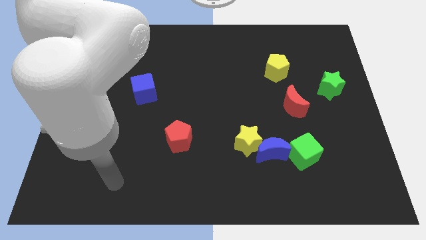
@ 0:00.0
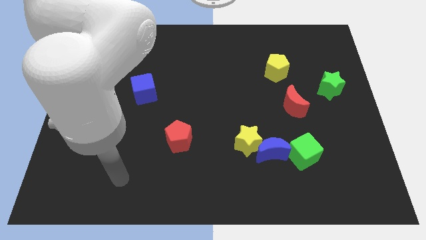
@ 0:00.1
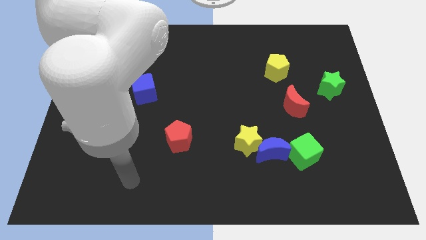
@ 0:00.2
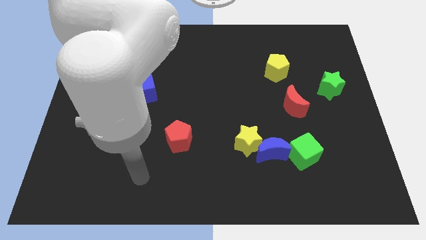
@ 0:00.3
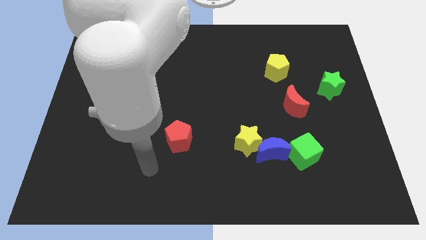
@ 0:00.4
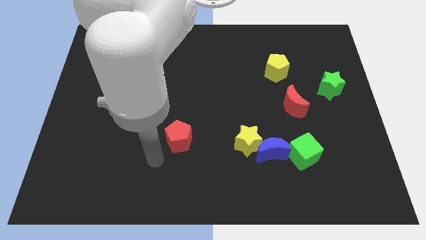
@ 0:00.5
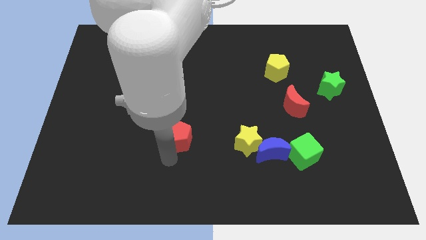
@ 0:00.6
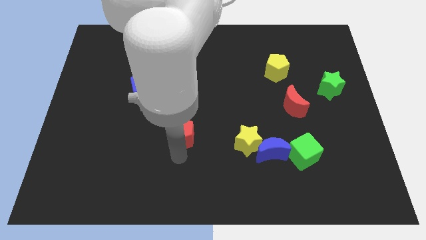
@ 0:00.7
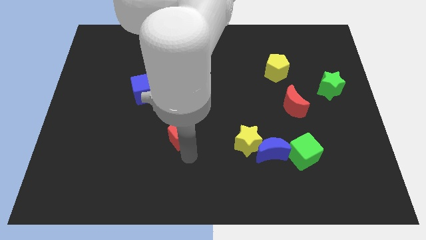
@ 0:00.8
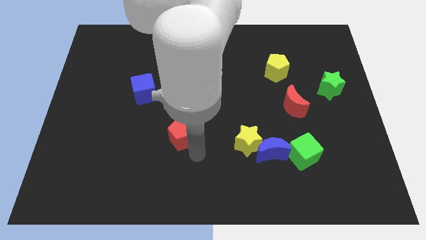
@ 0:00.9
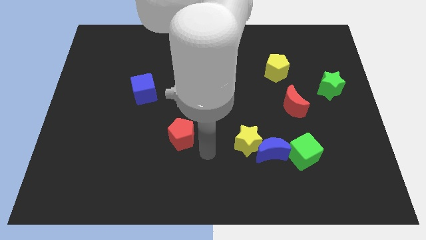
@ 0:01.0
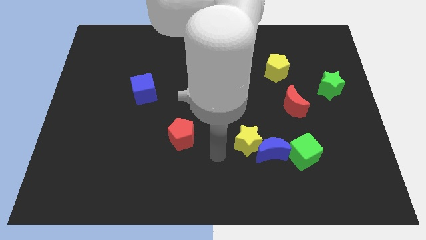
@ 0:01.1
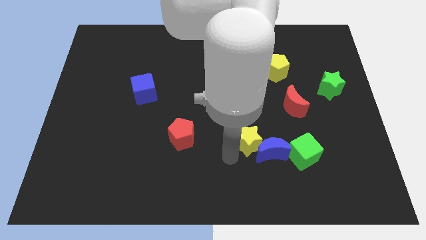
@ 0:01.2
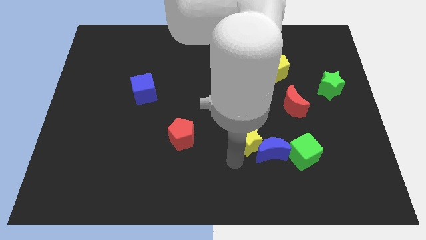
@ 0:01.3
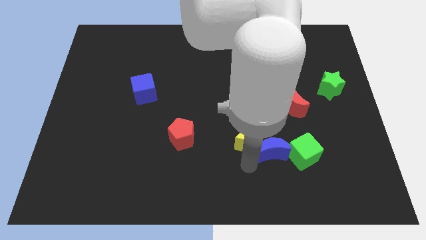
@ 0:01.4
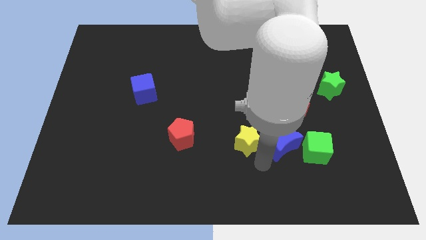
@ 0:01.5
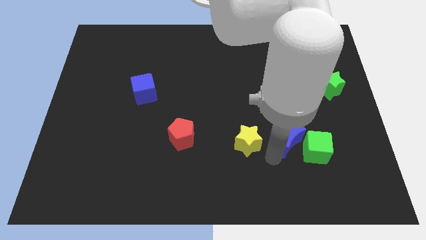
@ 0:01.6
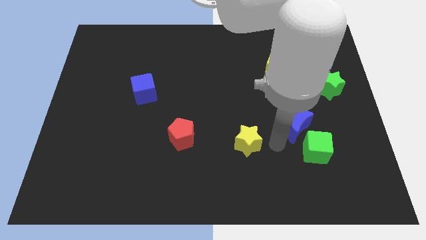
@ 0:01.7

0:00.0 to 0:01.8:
separate the yellow star from the blue moon

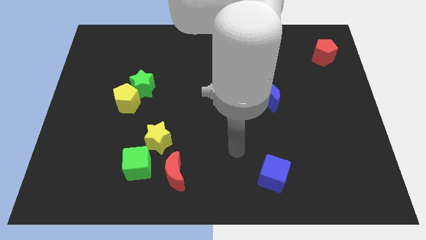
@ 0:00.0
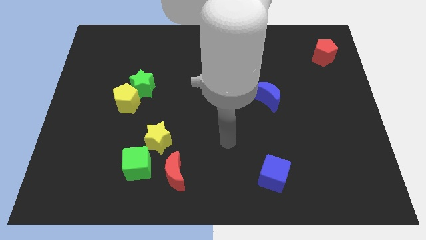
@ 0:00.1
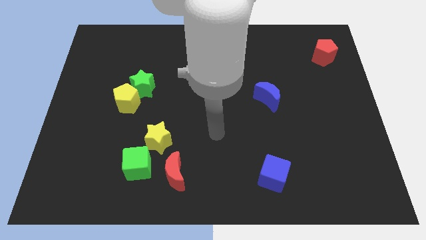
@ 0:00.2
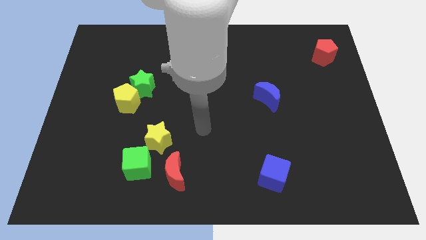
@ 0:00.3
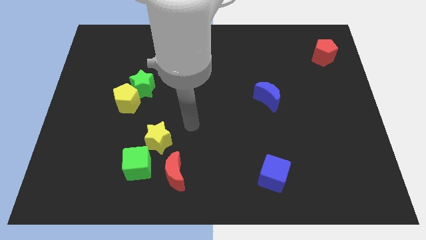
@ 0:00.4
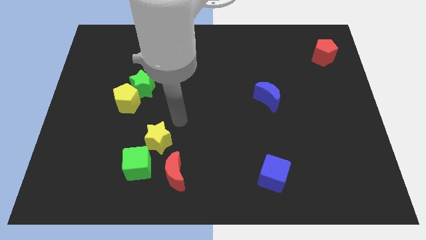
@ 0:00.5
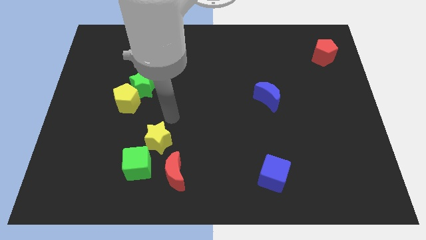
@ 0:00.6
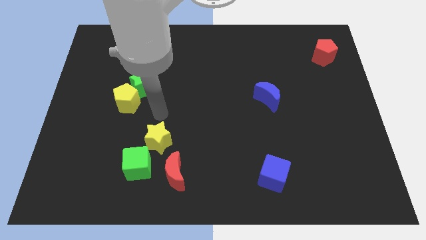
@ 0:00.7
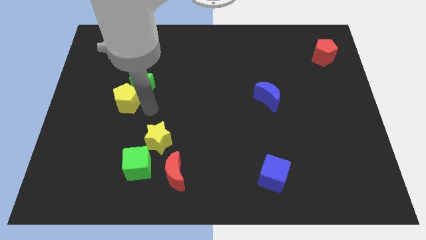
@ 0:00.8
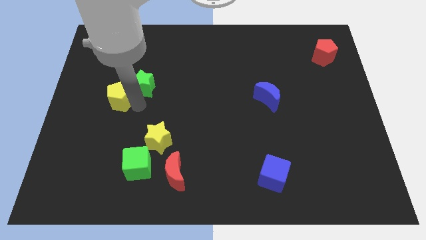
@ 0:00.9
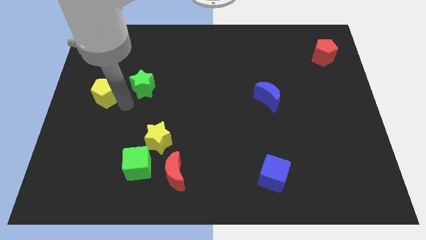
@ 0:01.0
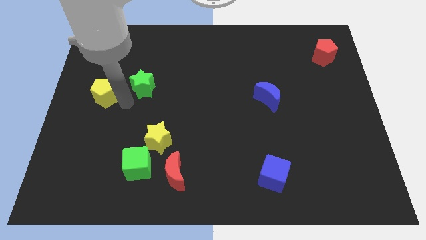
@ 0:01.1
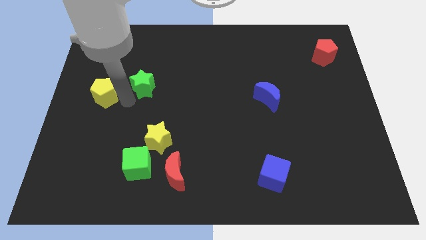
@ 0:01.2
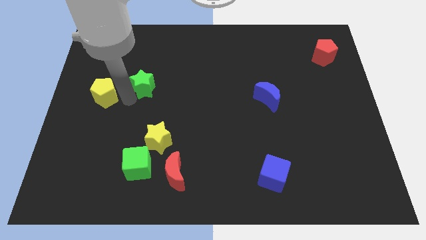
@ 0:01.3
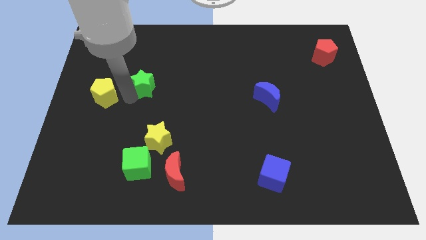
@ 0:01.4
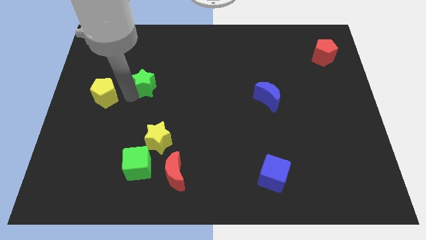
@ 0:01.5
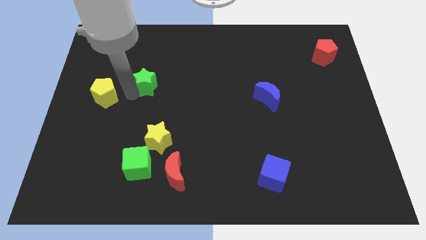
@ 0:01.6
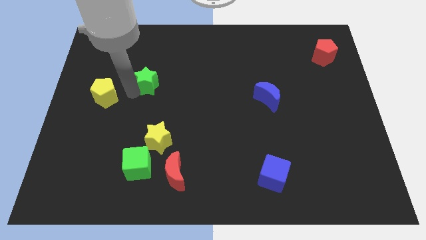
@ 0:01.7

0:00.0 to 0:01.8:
separate the green star from the yellow pentagon

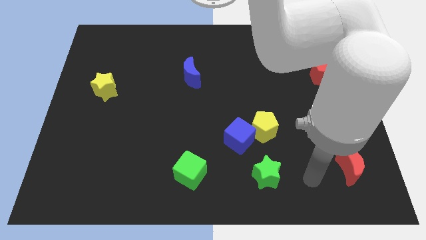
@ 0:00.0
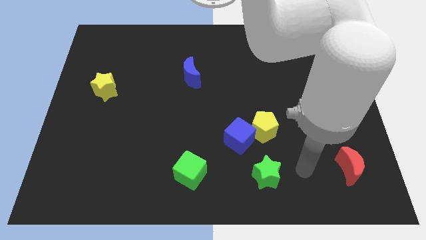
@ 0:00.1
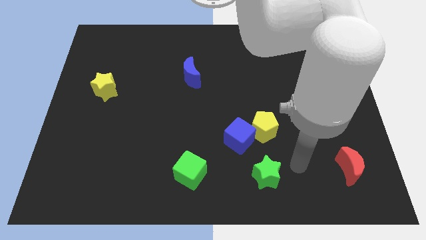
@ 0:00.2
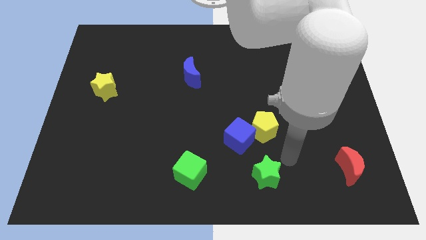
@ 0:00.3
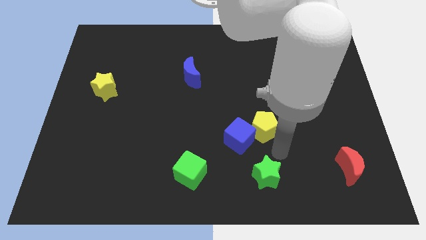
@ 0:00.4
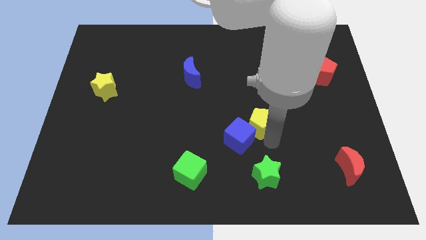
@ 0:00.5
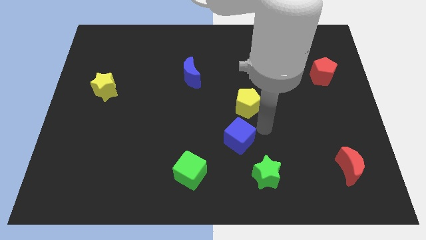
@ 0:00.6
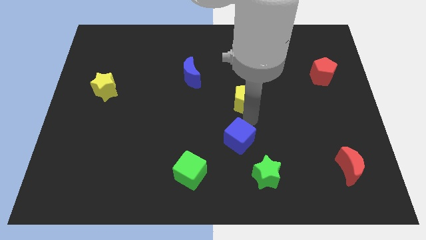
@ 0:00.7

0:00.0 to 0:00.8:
pull the blue cube apart from the yellow pentagon

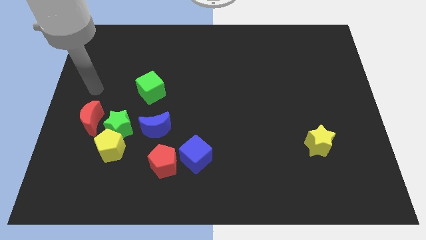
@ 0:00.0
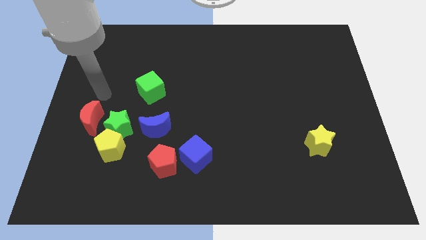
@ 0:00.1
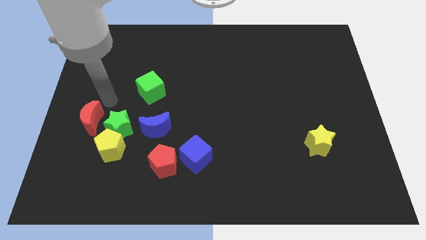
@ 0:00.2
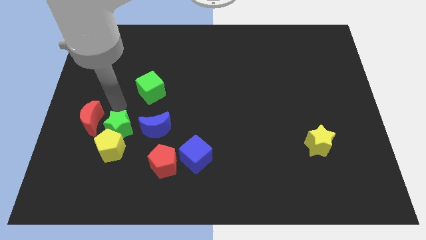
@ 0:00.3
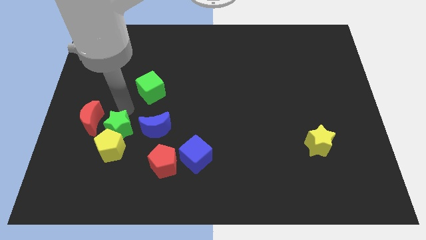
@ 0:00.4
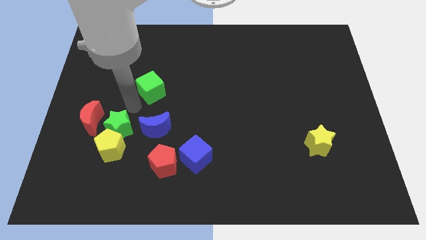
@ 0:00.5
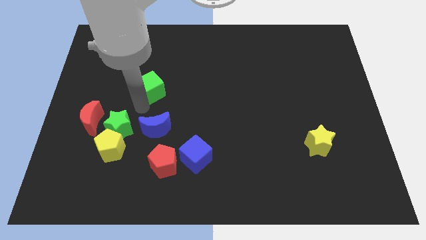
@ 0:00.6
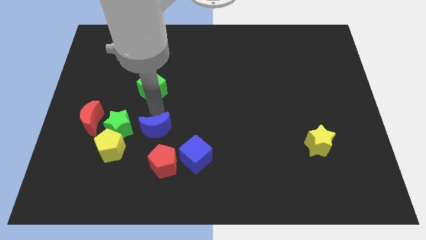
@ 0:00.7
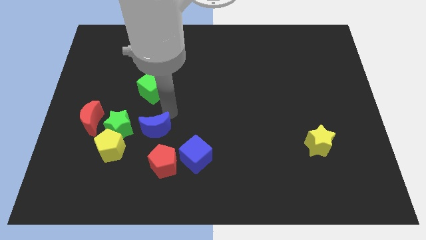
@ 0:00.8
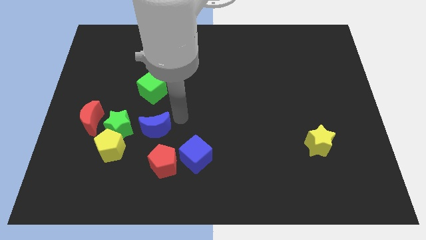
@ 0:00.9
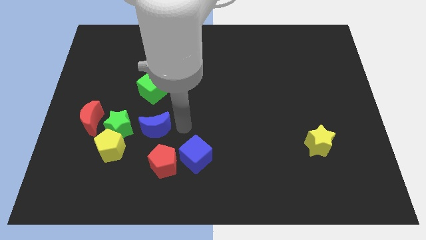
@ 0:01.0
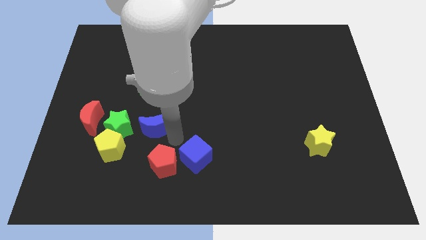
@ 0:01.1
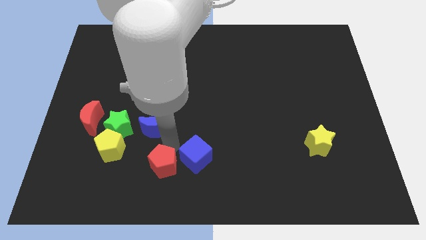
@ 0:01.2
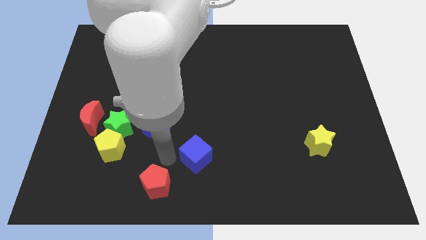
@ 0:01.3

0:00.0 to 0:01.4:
separate the blue cube from the red pentagon

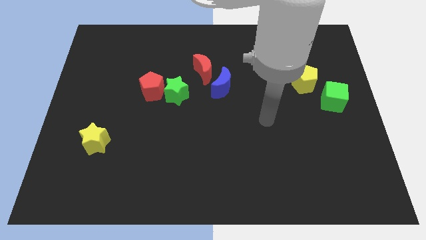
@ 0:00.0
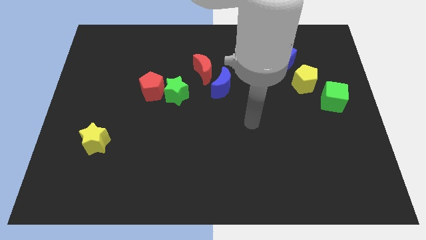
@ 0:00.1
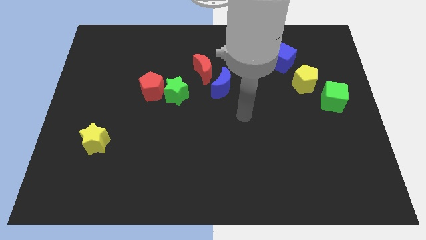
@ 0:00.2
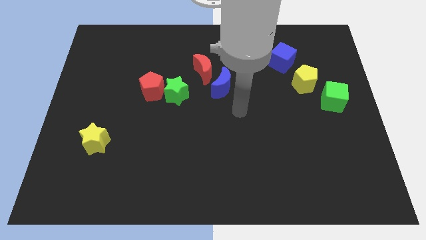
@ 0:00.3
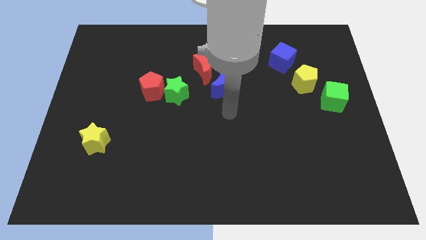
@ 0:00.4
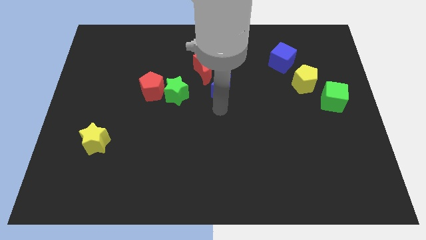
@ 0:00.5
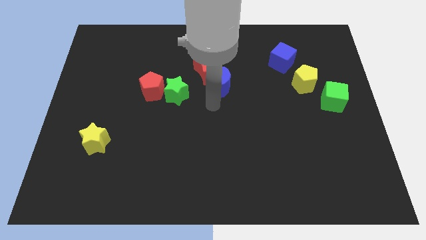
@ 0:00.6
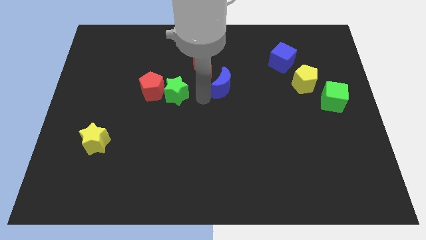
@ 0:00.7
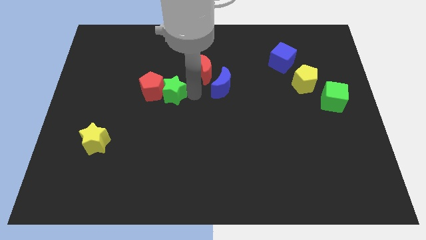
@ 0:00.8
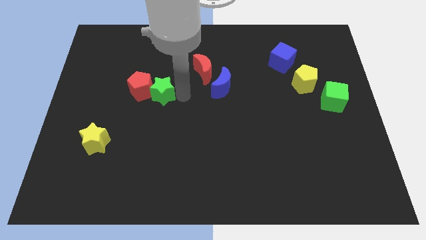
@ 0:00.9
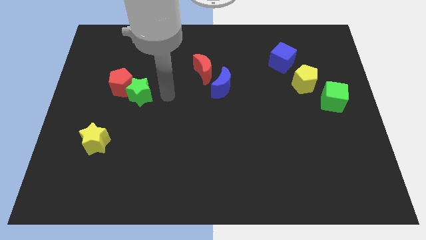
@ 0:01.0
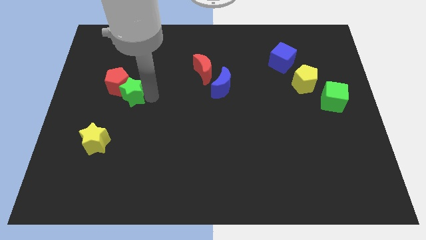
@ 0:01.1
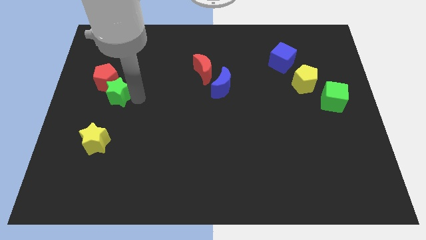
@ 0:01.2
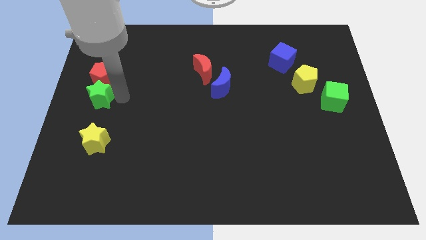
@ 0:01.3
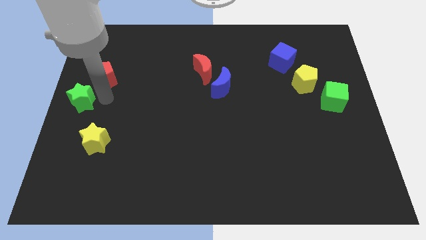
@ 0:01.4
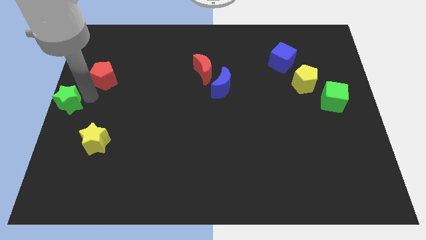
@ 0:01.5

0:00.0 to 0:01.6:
move the red pentagon away from the green star

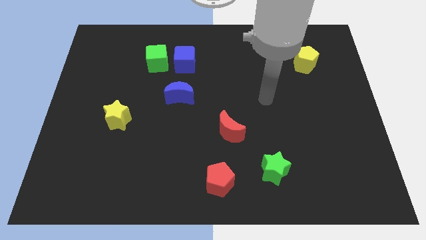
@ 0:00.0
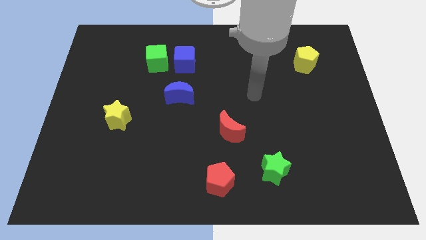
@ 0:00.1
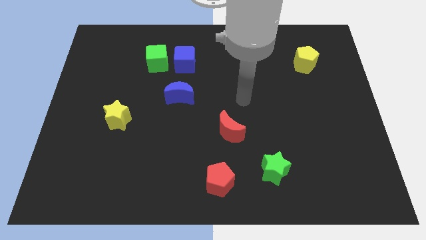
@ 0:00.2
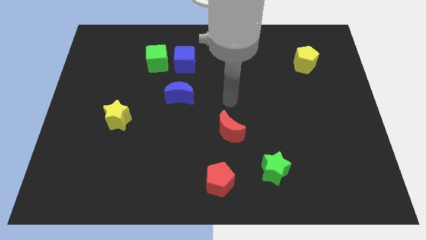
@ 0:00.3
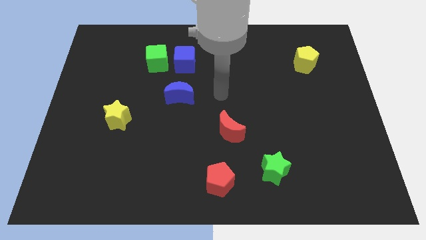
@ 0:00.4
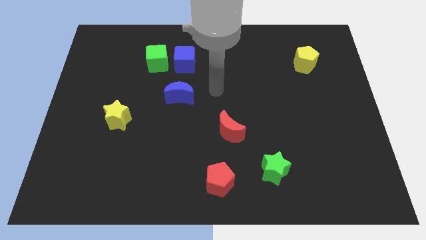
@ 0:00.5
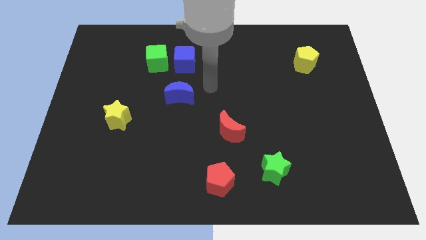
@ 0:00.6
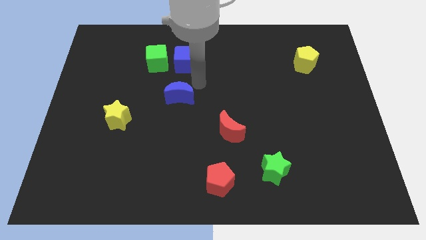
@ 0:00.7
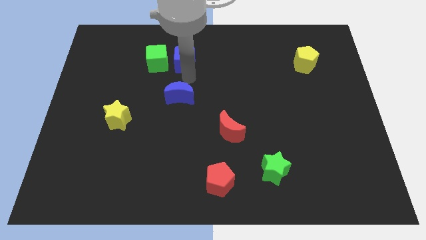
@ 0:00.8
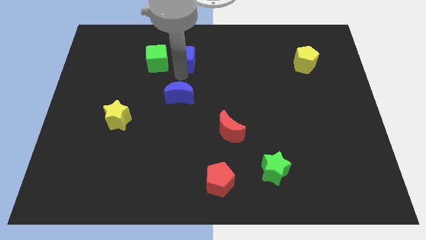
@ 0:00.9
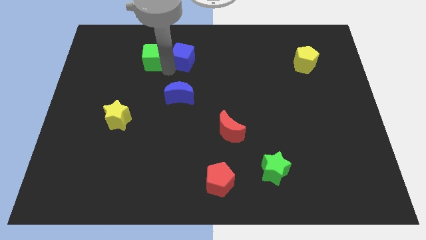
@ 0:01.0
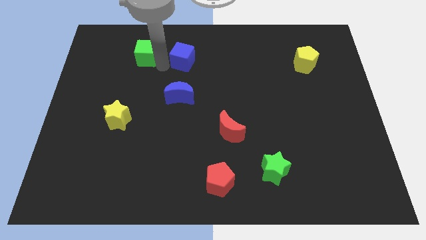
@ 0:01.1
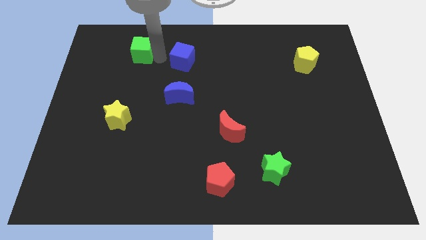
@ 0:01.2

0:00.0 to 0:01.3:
separate the blue cube from the green cube

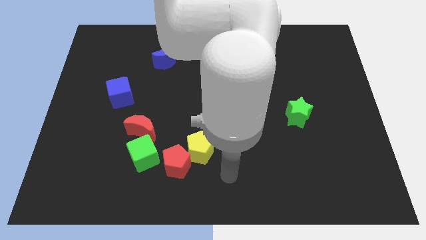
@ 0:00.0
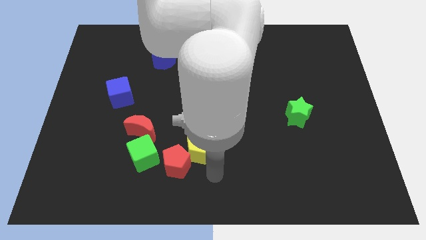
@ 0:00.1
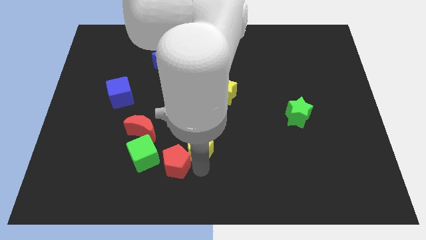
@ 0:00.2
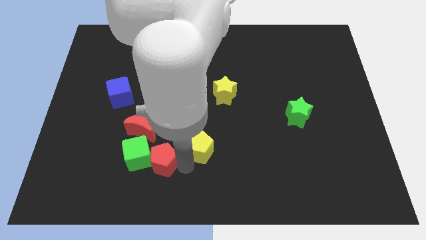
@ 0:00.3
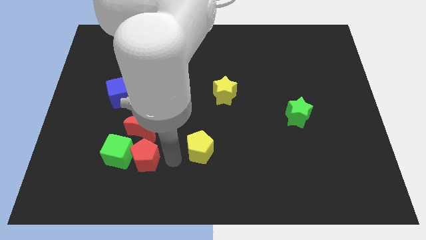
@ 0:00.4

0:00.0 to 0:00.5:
pull the yellow pentagon apart from the red pentagon

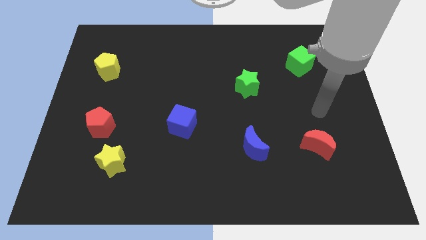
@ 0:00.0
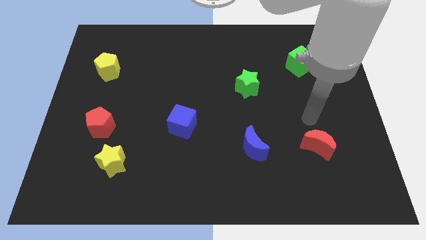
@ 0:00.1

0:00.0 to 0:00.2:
move the red pentagon away from the yellow star
